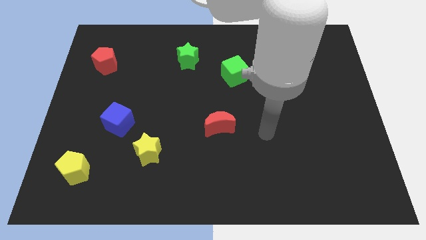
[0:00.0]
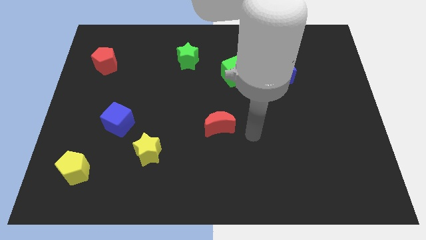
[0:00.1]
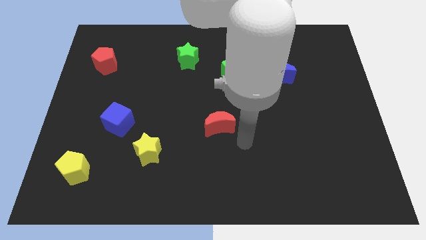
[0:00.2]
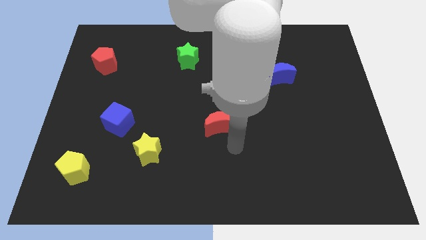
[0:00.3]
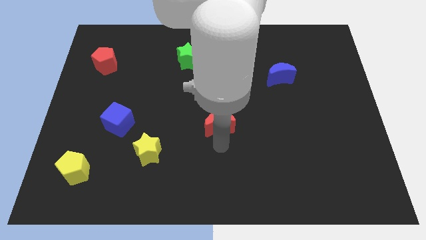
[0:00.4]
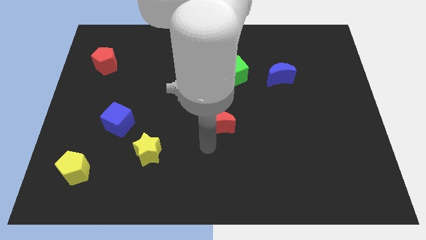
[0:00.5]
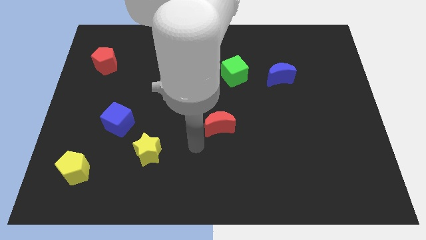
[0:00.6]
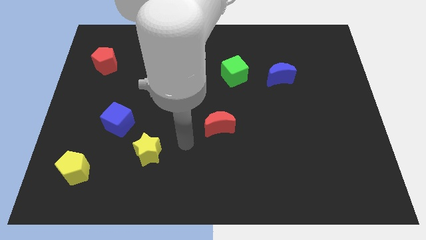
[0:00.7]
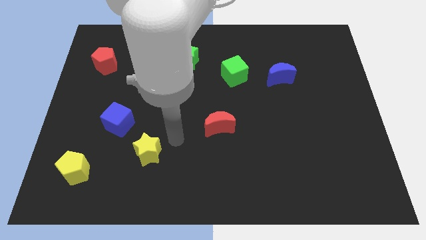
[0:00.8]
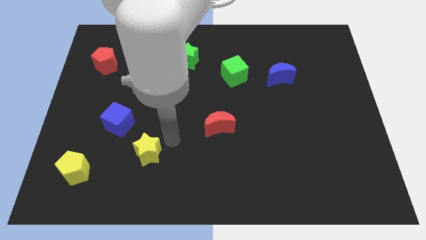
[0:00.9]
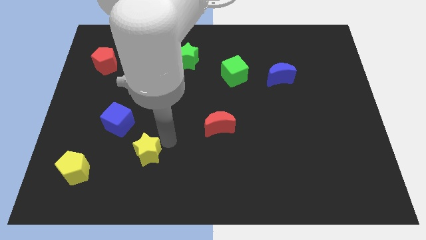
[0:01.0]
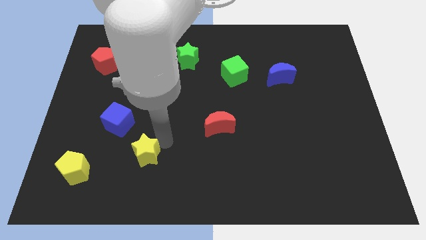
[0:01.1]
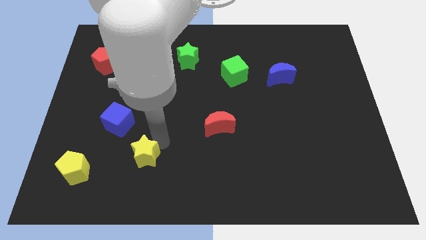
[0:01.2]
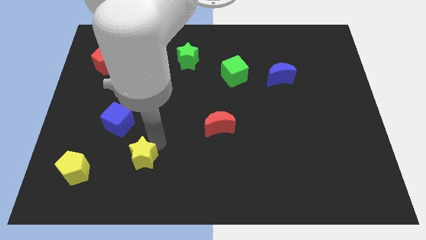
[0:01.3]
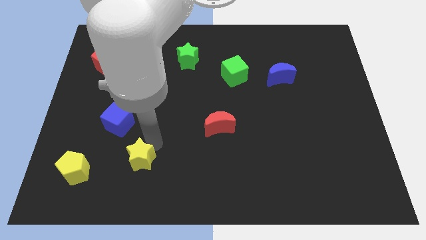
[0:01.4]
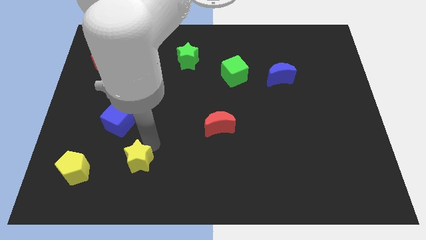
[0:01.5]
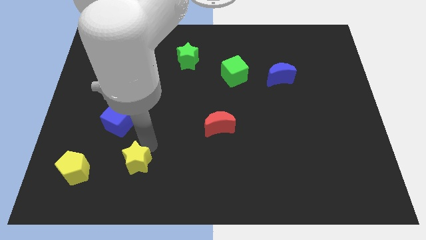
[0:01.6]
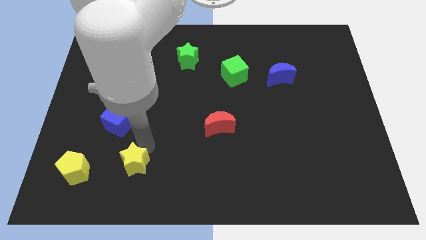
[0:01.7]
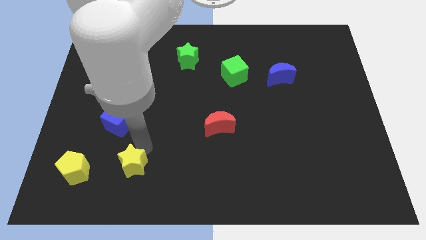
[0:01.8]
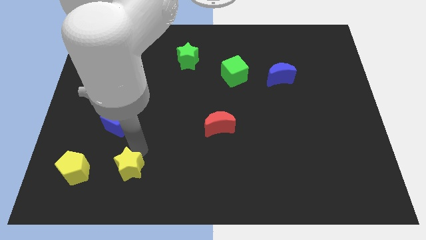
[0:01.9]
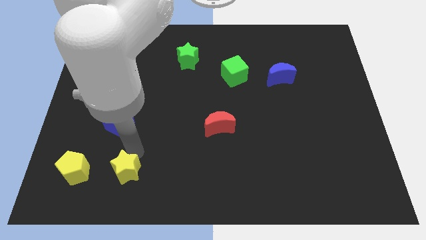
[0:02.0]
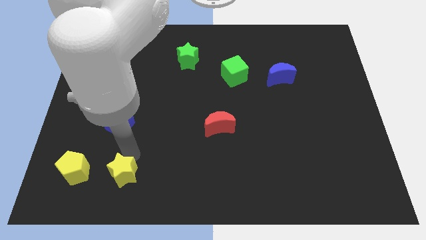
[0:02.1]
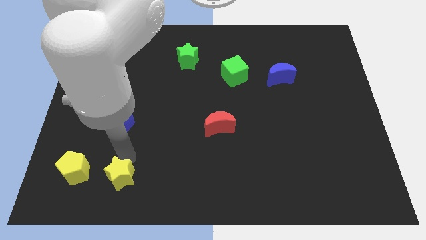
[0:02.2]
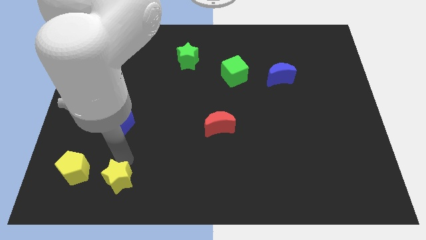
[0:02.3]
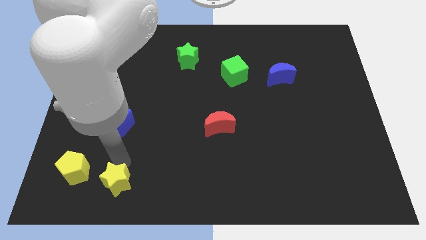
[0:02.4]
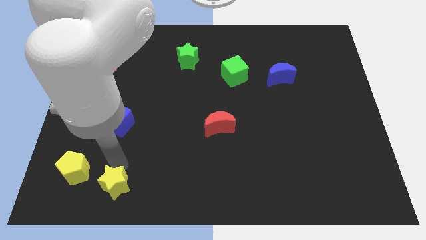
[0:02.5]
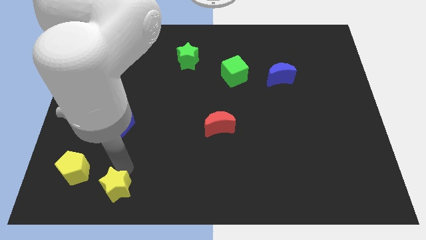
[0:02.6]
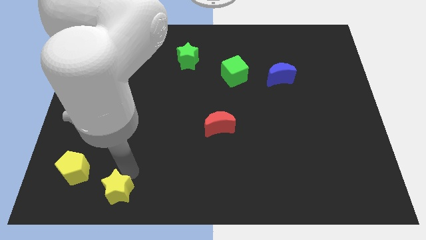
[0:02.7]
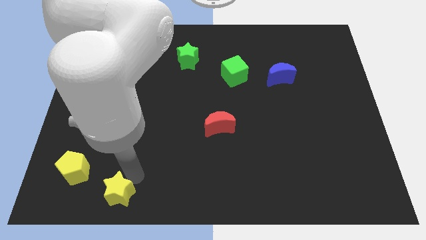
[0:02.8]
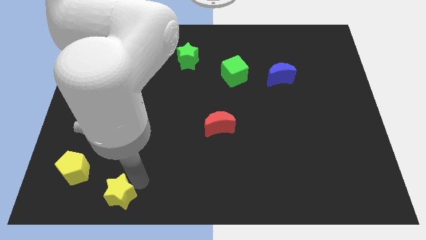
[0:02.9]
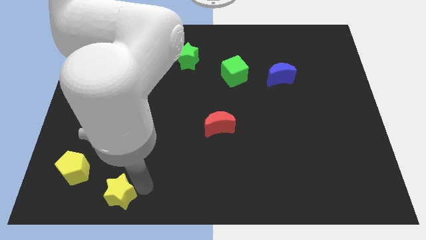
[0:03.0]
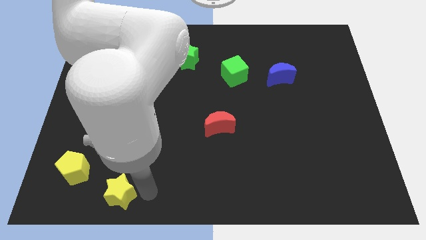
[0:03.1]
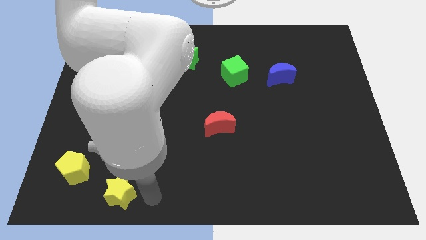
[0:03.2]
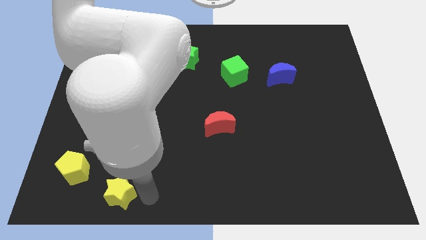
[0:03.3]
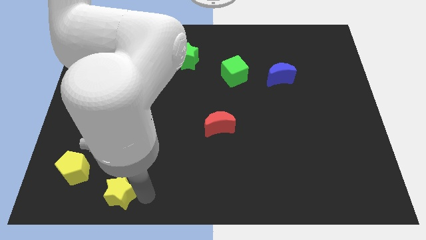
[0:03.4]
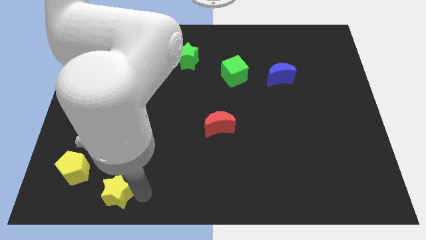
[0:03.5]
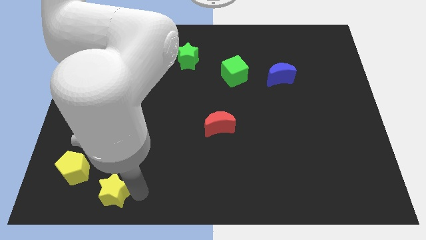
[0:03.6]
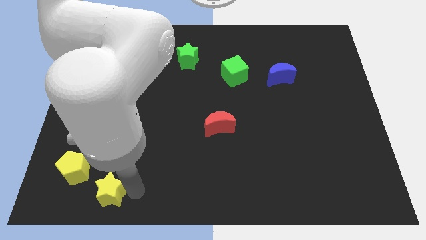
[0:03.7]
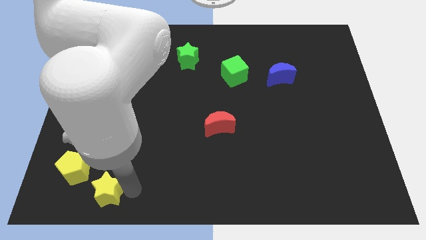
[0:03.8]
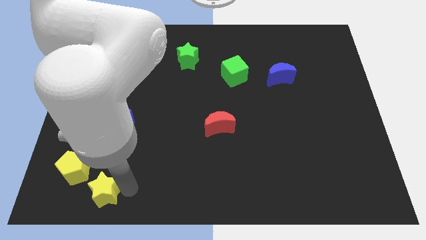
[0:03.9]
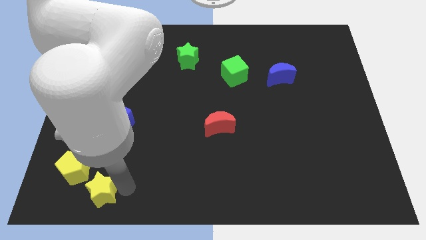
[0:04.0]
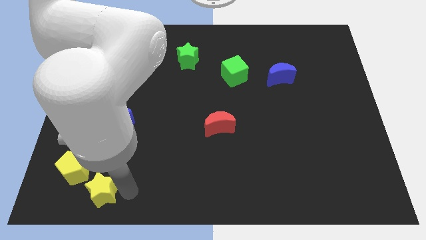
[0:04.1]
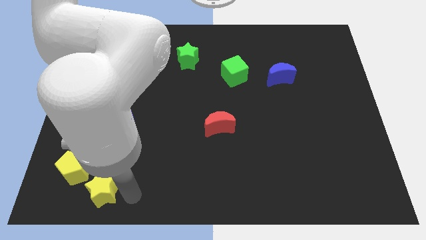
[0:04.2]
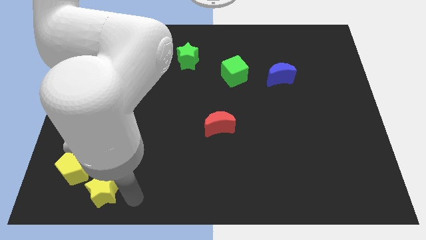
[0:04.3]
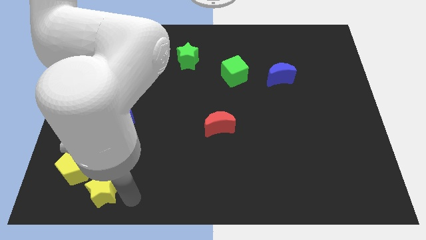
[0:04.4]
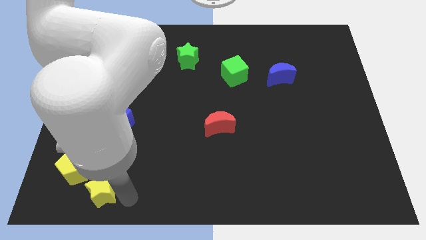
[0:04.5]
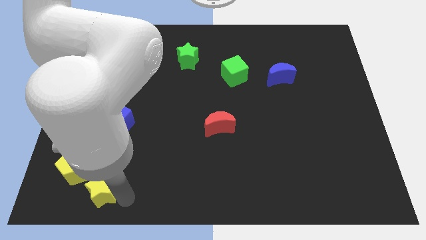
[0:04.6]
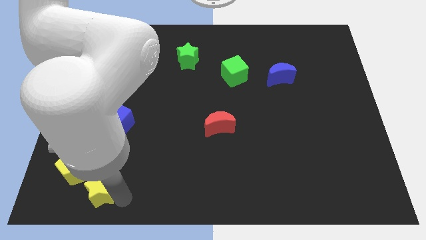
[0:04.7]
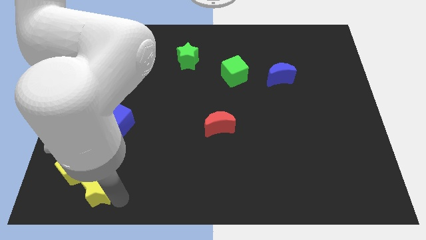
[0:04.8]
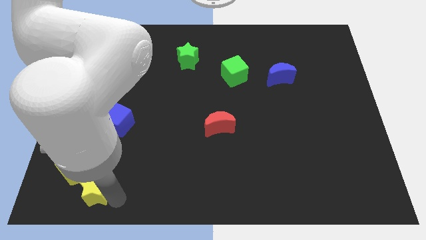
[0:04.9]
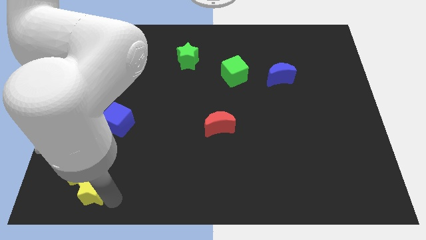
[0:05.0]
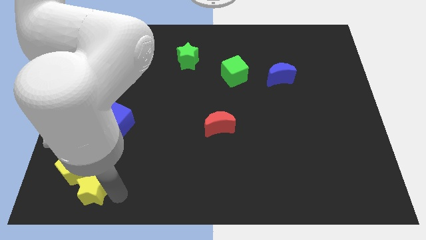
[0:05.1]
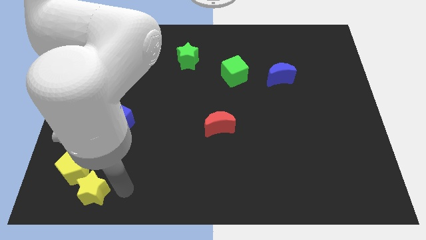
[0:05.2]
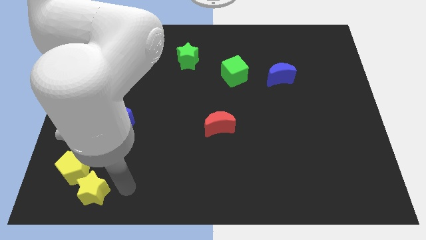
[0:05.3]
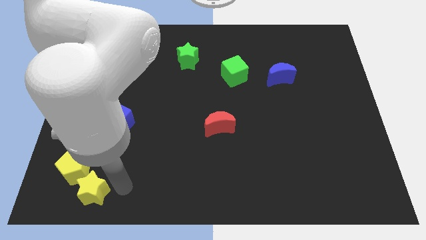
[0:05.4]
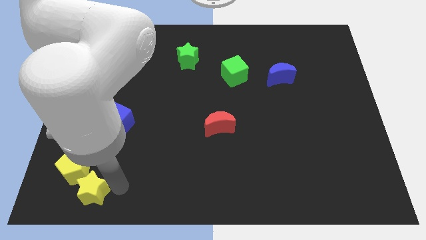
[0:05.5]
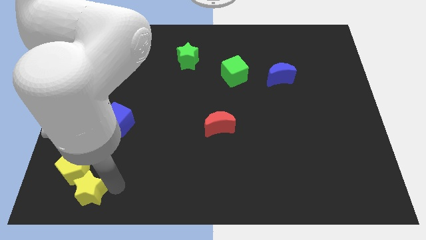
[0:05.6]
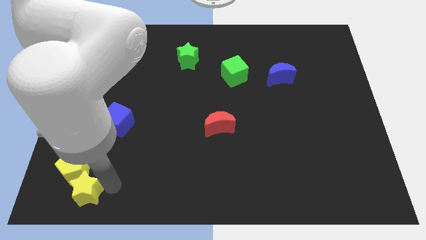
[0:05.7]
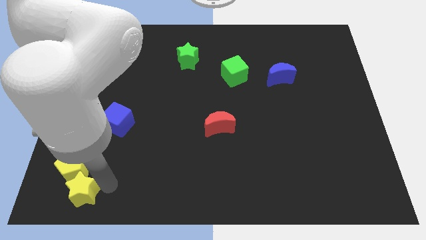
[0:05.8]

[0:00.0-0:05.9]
push the yellow star to the bottom left
